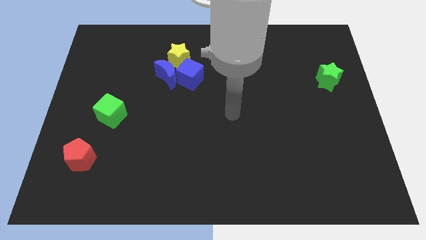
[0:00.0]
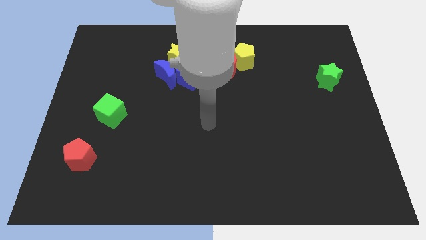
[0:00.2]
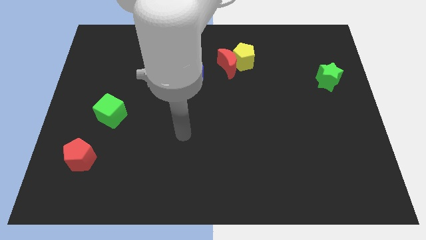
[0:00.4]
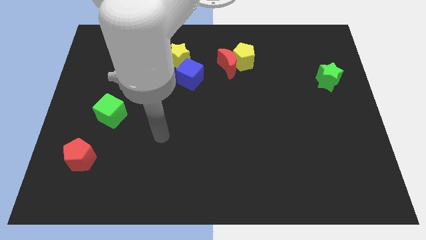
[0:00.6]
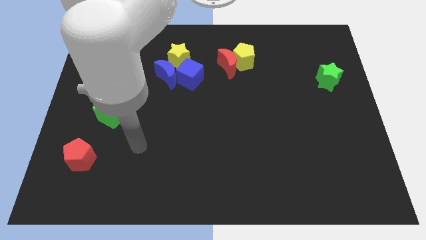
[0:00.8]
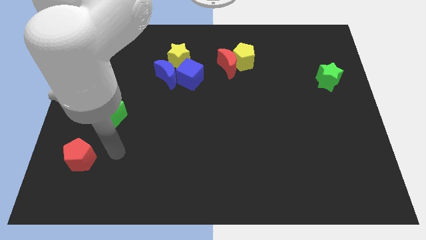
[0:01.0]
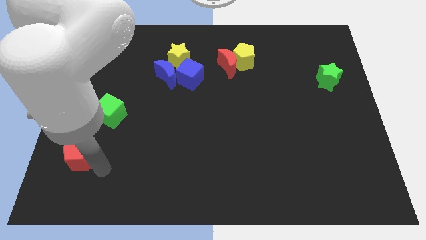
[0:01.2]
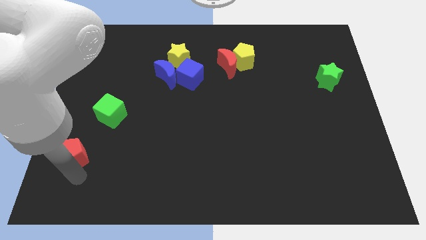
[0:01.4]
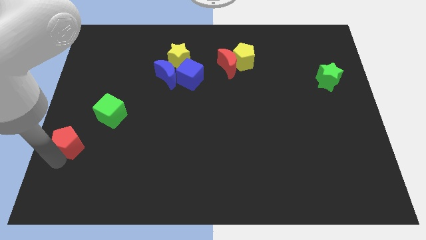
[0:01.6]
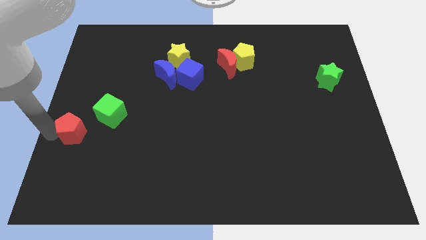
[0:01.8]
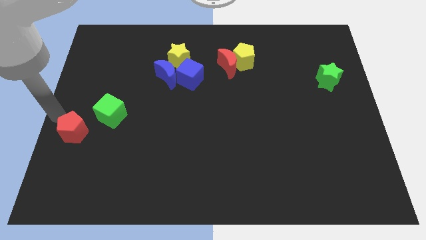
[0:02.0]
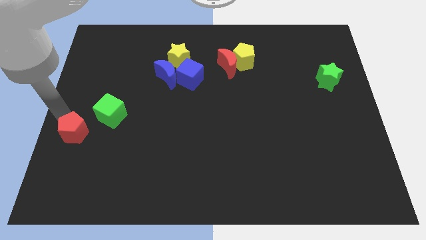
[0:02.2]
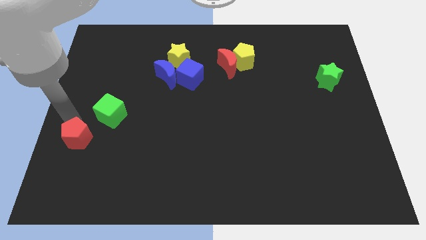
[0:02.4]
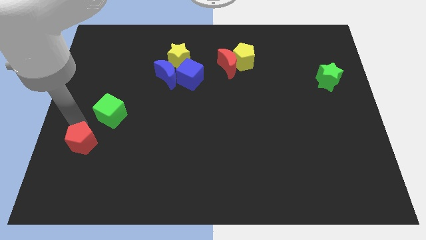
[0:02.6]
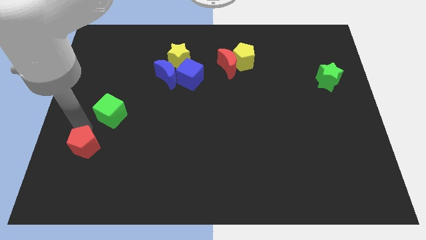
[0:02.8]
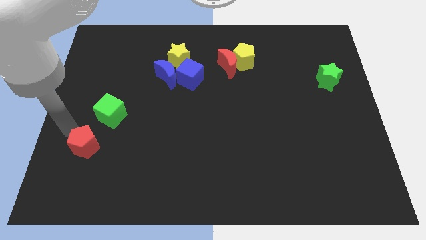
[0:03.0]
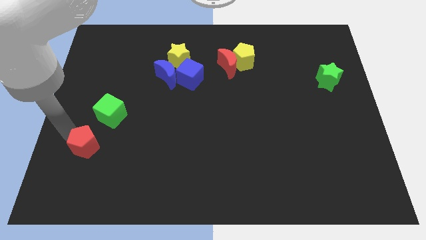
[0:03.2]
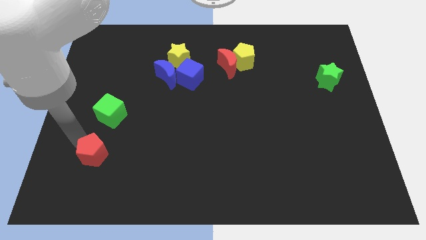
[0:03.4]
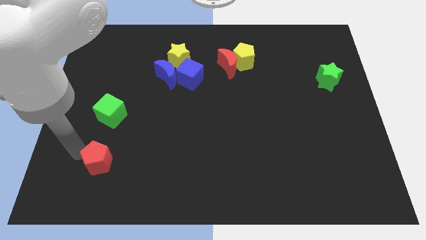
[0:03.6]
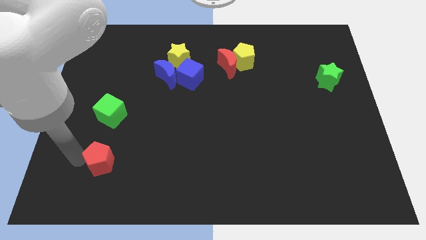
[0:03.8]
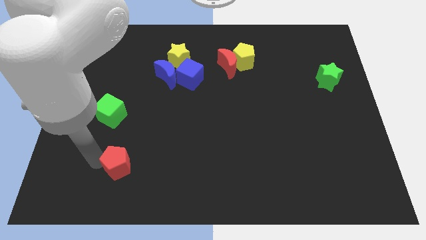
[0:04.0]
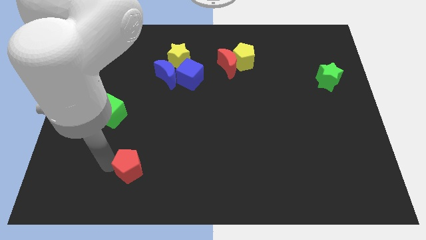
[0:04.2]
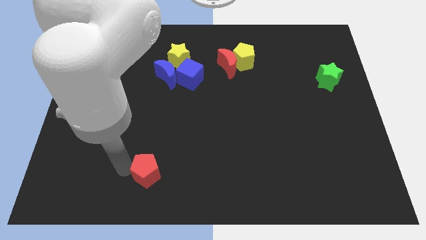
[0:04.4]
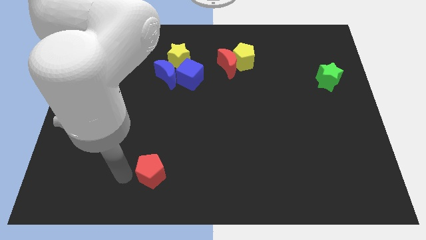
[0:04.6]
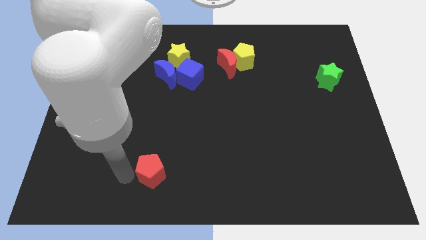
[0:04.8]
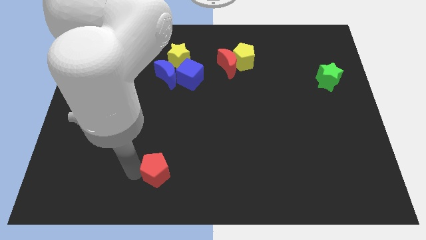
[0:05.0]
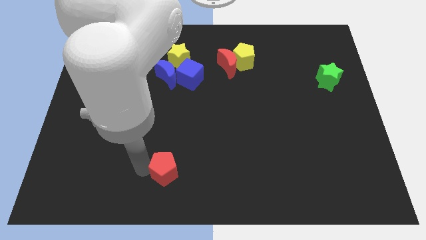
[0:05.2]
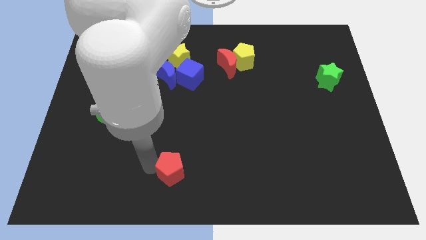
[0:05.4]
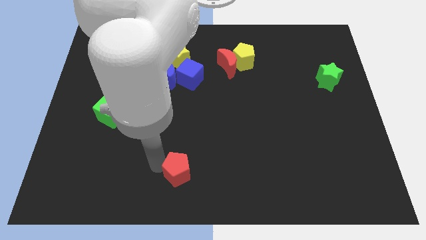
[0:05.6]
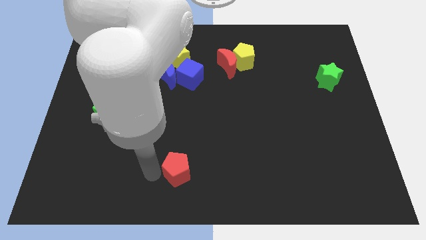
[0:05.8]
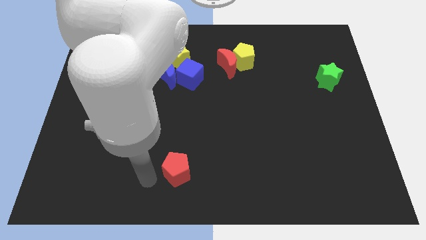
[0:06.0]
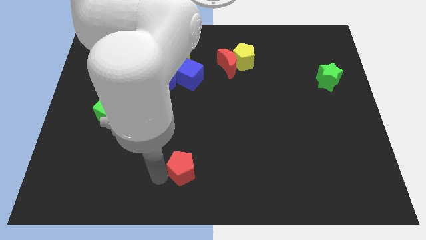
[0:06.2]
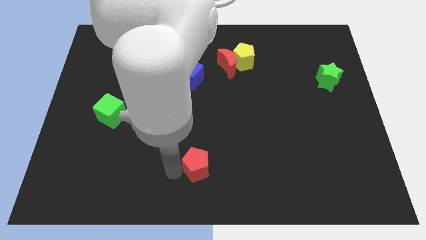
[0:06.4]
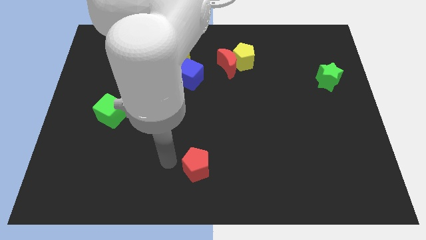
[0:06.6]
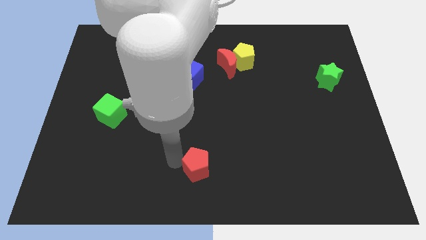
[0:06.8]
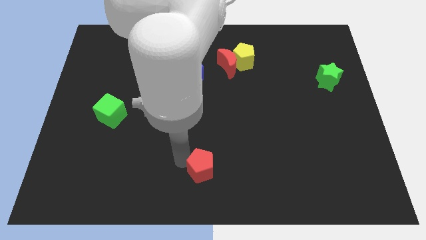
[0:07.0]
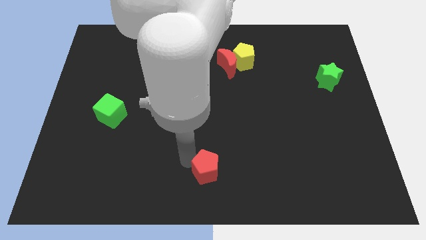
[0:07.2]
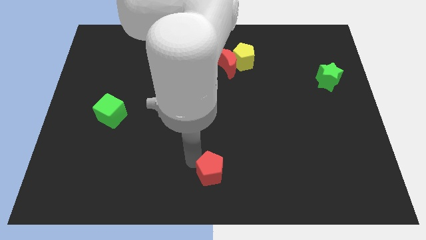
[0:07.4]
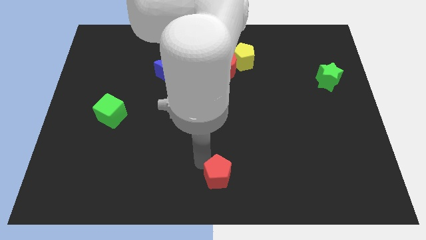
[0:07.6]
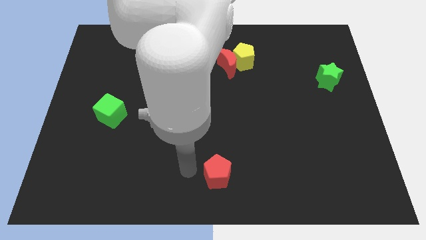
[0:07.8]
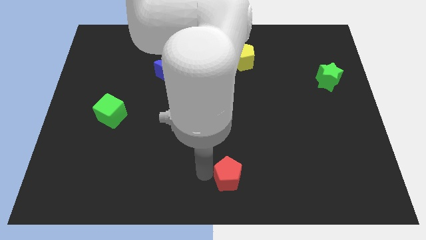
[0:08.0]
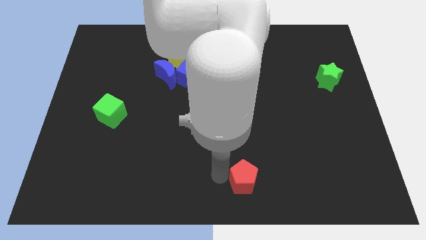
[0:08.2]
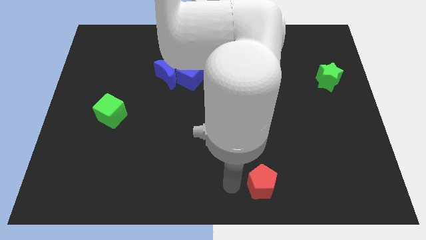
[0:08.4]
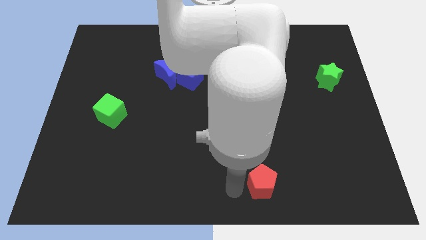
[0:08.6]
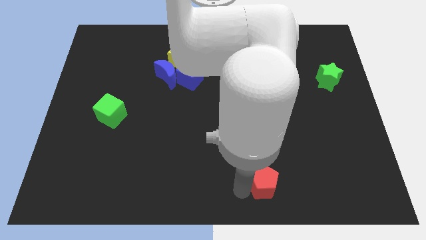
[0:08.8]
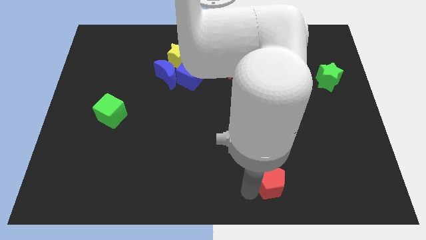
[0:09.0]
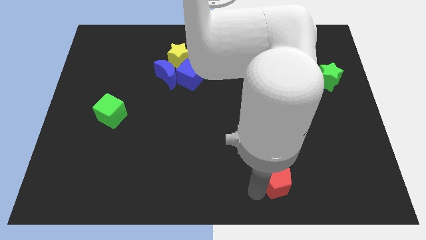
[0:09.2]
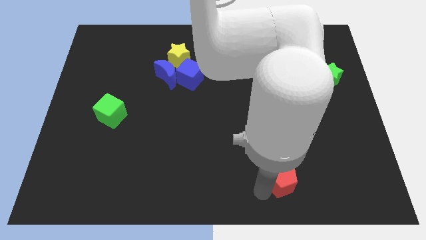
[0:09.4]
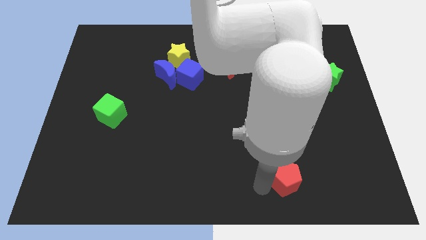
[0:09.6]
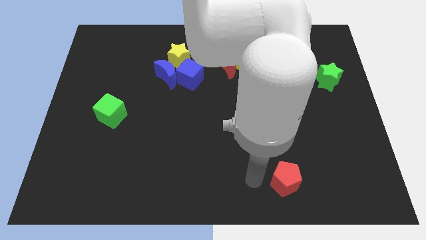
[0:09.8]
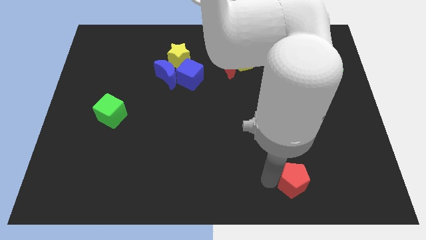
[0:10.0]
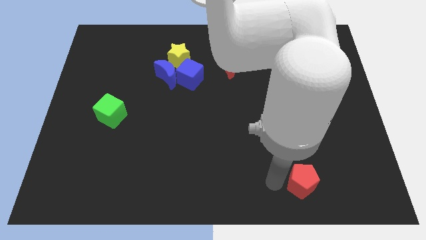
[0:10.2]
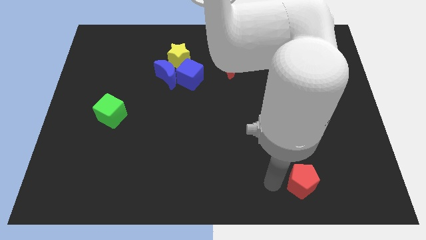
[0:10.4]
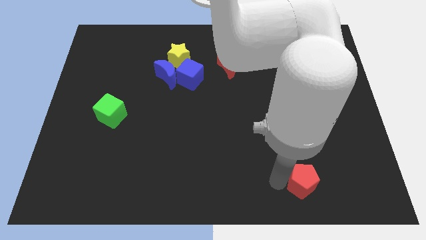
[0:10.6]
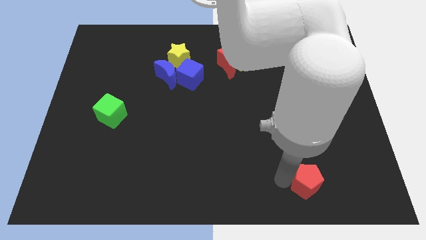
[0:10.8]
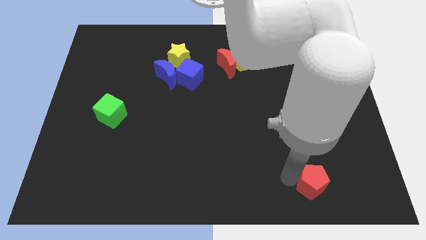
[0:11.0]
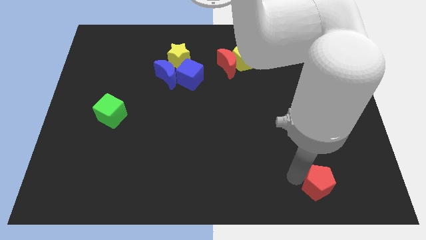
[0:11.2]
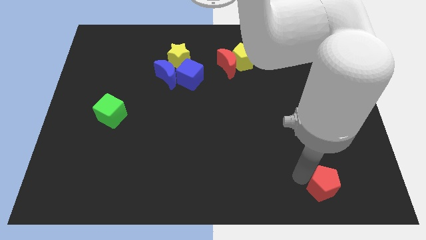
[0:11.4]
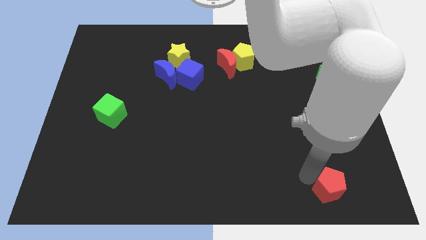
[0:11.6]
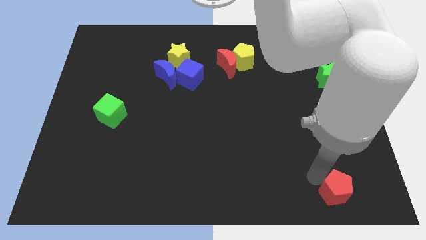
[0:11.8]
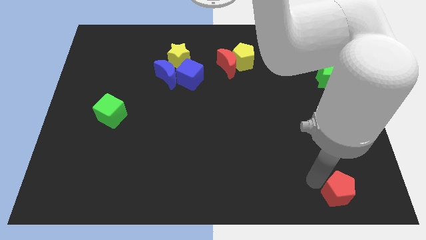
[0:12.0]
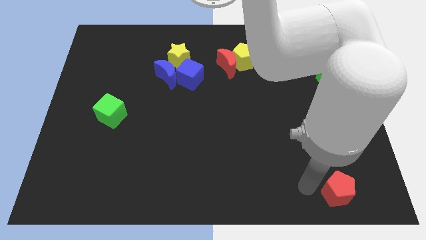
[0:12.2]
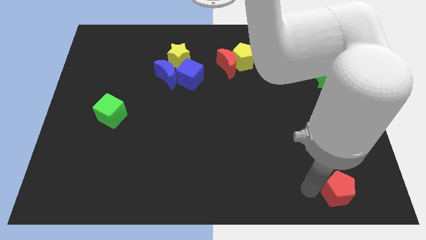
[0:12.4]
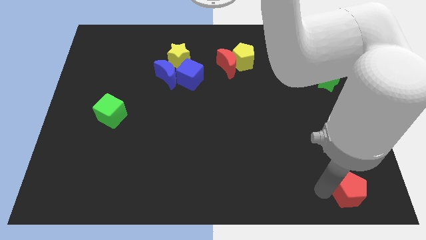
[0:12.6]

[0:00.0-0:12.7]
move the red pentagon to the bottom right corner
